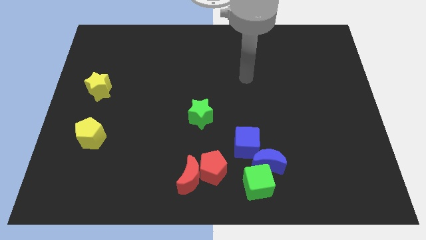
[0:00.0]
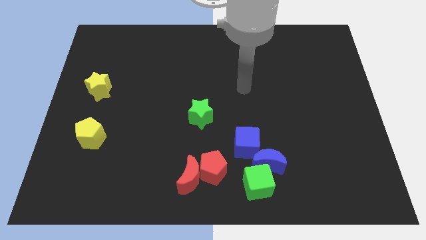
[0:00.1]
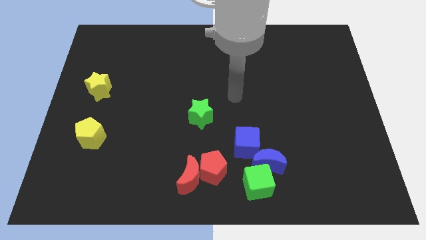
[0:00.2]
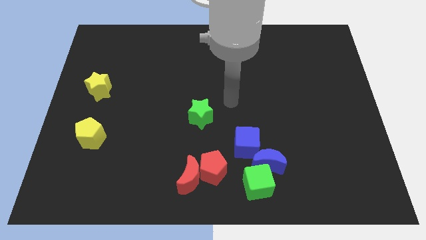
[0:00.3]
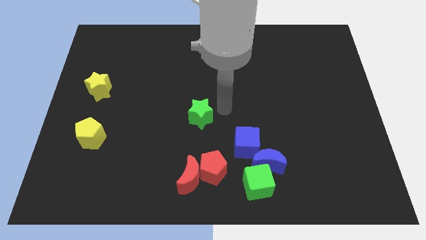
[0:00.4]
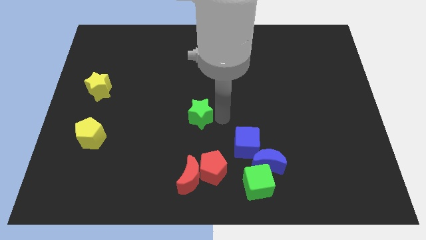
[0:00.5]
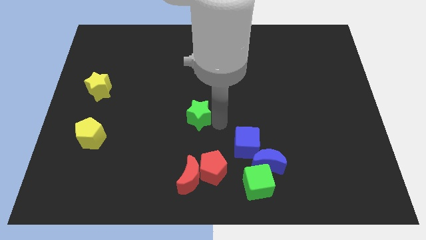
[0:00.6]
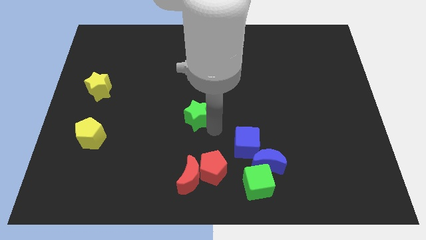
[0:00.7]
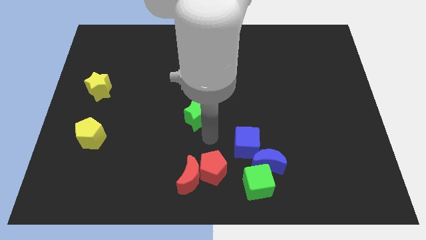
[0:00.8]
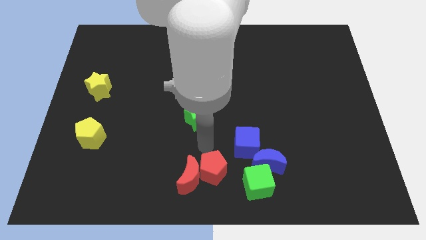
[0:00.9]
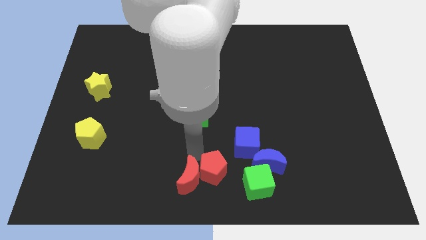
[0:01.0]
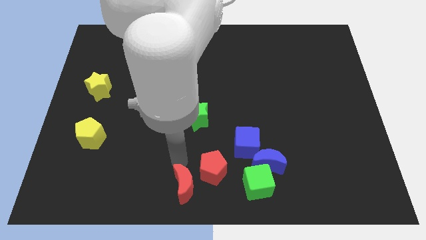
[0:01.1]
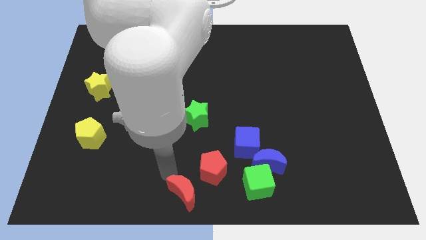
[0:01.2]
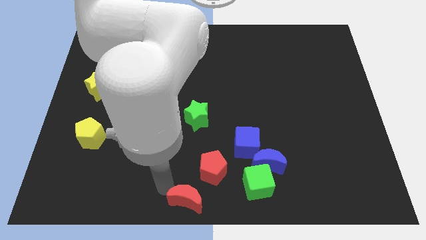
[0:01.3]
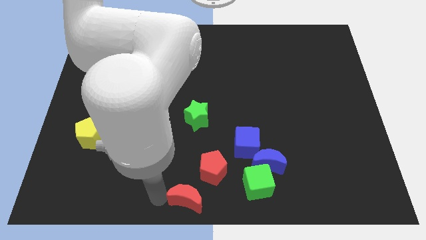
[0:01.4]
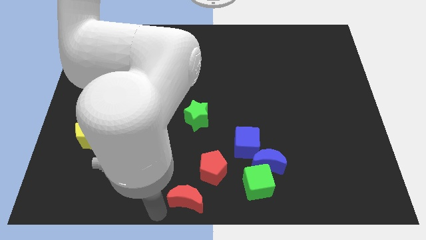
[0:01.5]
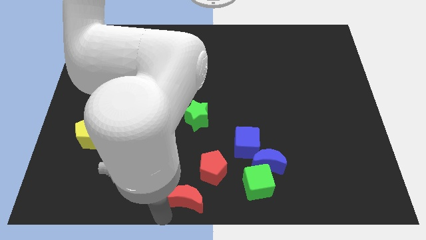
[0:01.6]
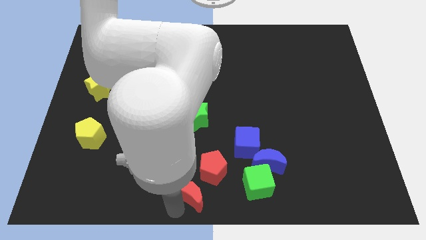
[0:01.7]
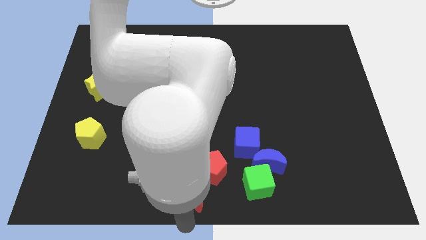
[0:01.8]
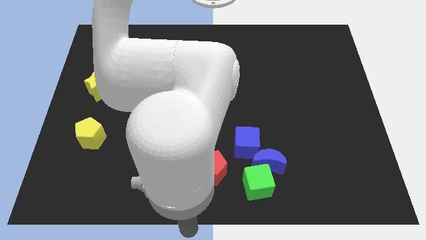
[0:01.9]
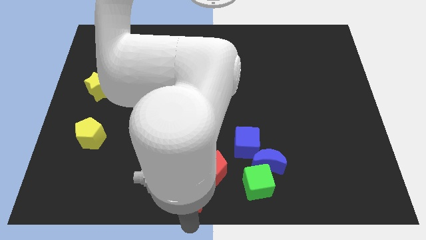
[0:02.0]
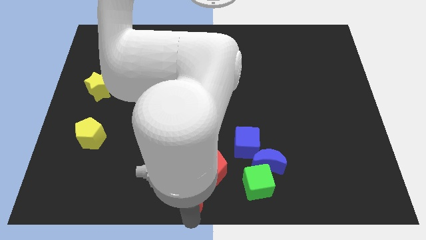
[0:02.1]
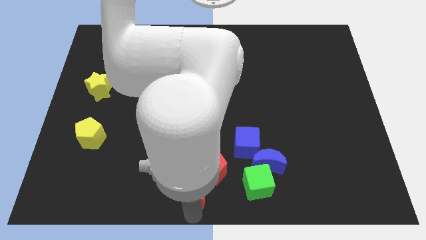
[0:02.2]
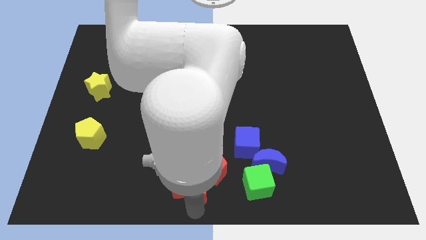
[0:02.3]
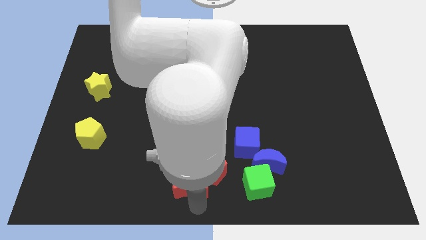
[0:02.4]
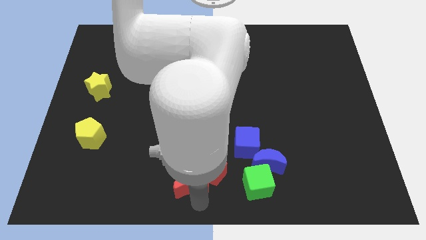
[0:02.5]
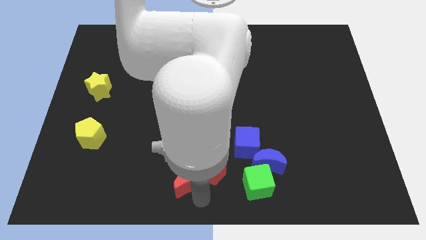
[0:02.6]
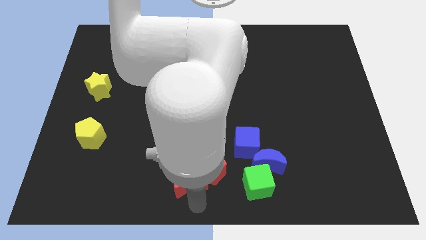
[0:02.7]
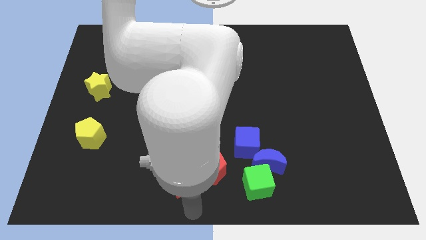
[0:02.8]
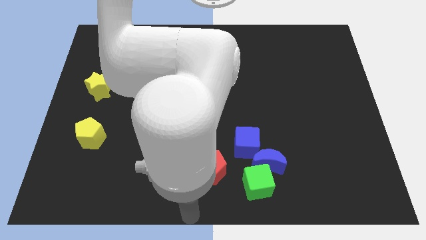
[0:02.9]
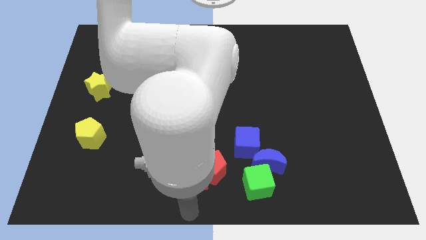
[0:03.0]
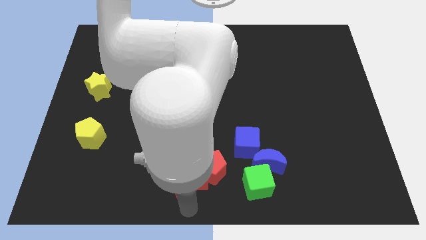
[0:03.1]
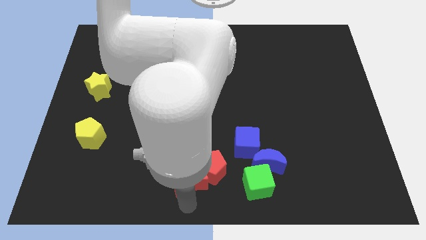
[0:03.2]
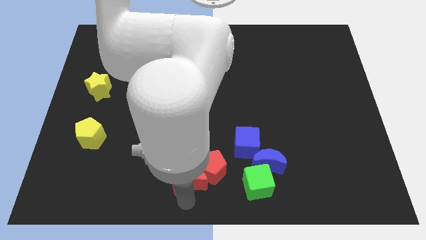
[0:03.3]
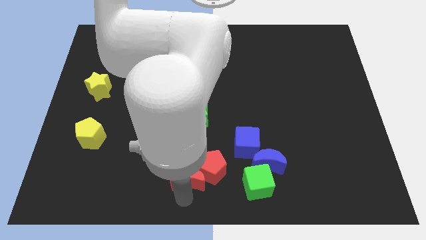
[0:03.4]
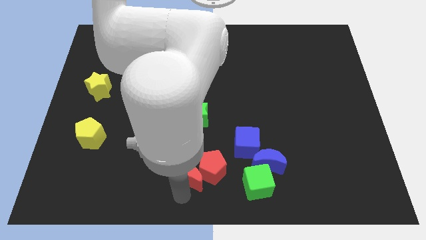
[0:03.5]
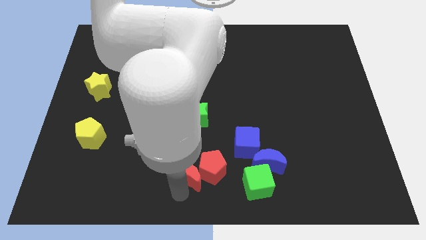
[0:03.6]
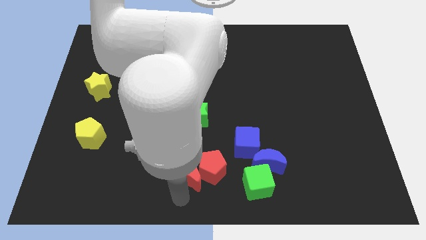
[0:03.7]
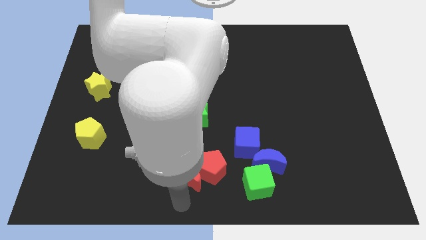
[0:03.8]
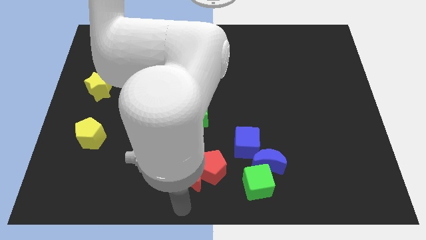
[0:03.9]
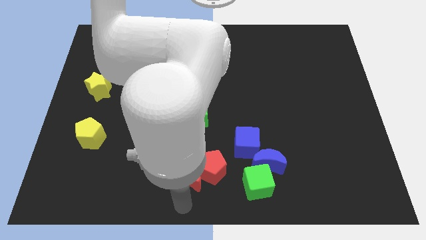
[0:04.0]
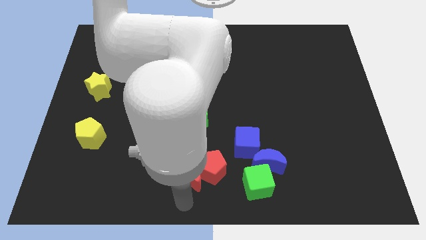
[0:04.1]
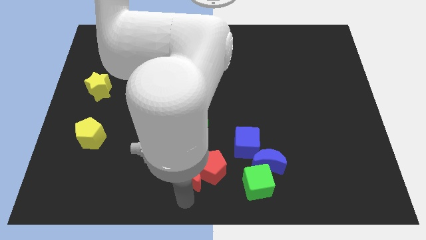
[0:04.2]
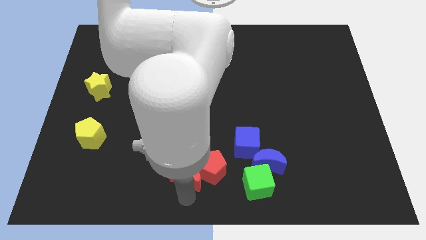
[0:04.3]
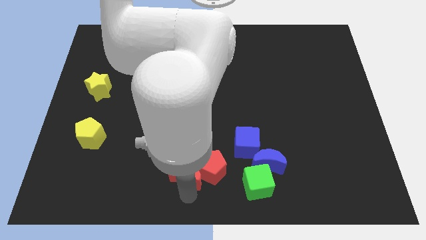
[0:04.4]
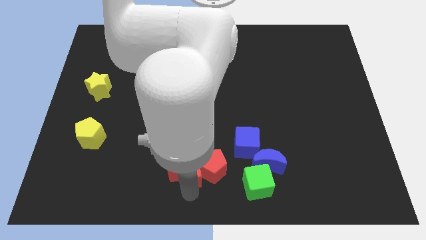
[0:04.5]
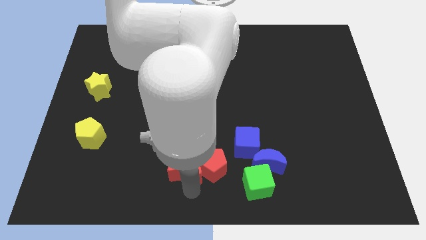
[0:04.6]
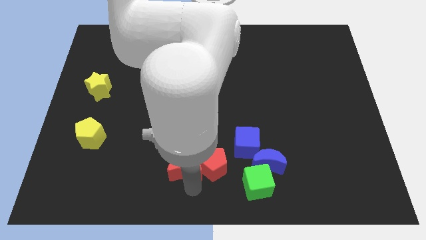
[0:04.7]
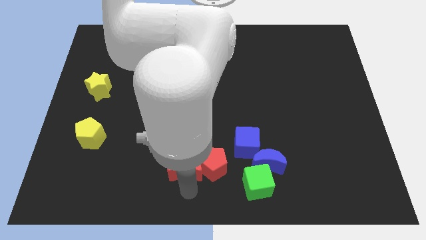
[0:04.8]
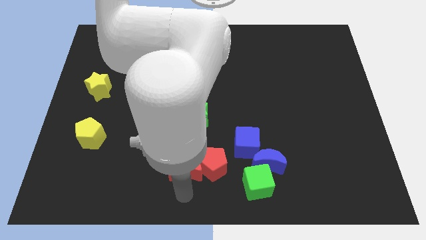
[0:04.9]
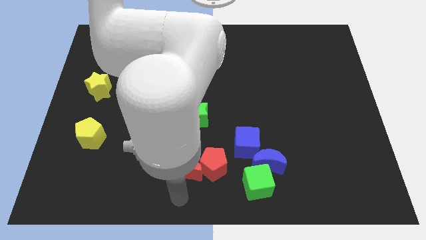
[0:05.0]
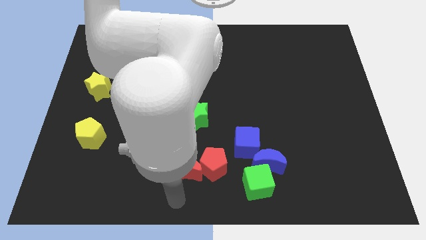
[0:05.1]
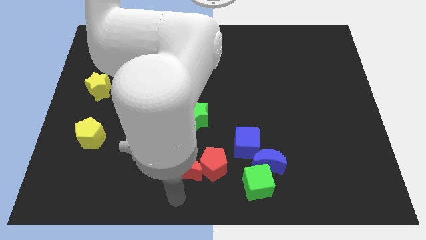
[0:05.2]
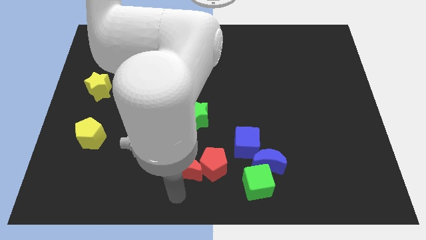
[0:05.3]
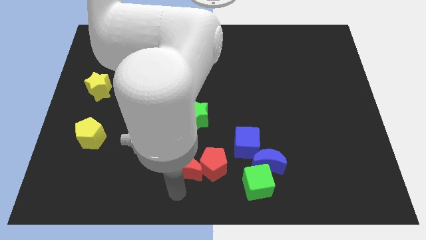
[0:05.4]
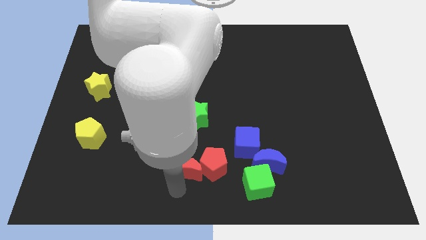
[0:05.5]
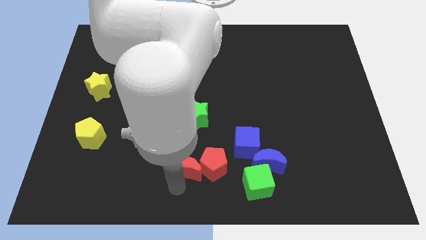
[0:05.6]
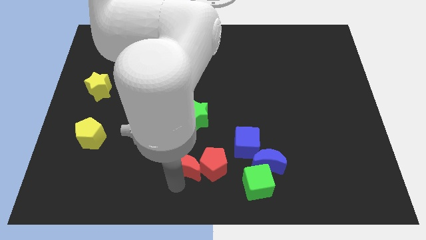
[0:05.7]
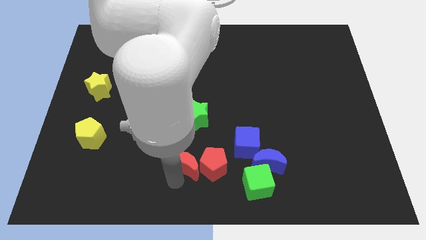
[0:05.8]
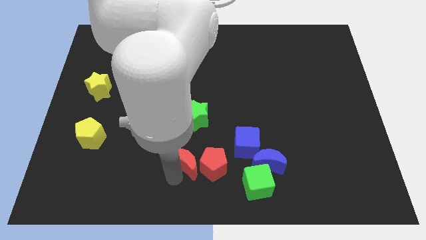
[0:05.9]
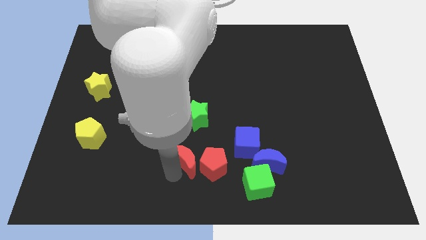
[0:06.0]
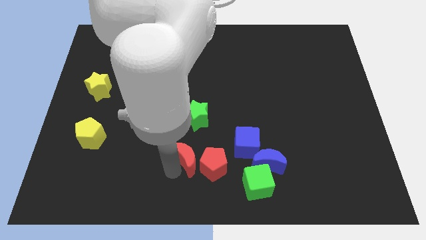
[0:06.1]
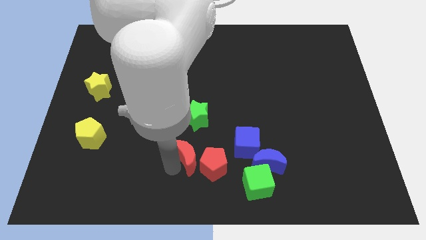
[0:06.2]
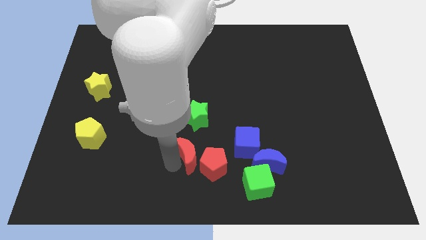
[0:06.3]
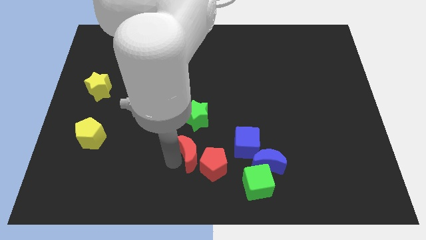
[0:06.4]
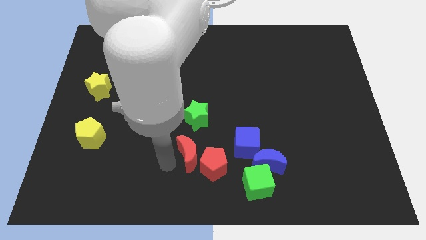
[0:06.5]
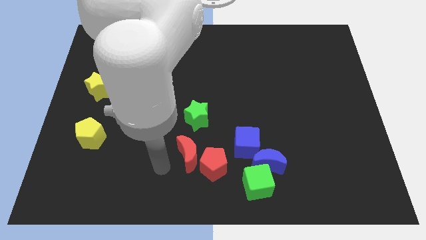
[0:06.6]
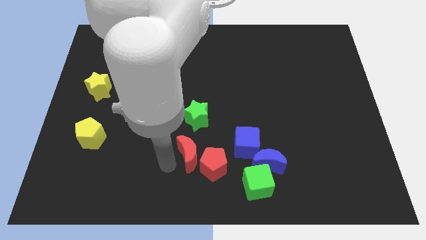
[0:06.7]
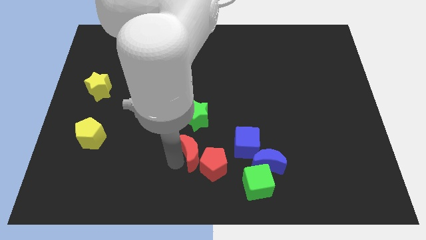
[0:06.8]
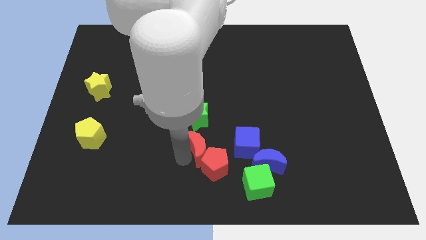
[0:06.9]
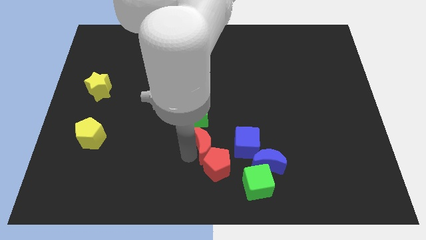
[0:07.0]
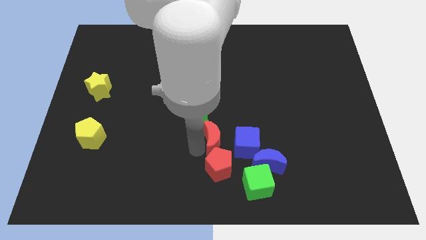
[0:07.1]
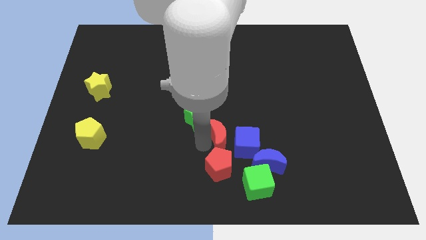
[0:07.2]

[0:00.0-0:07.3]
slide the red moon to the blue cube
